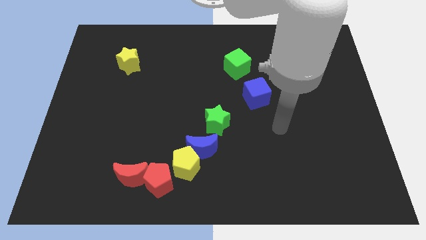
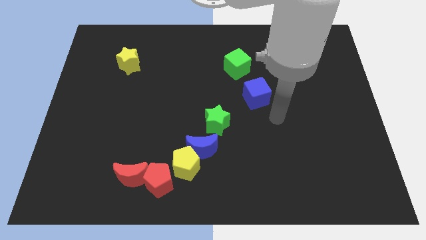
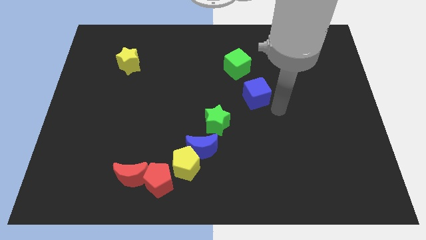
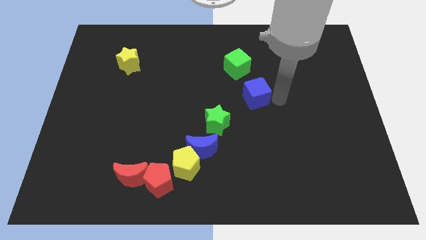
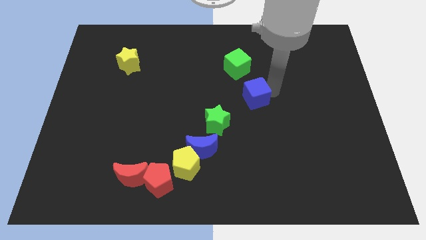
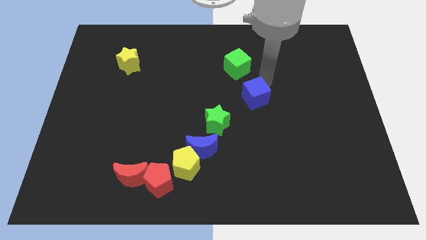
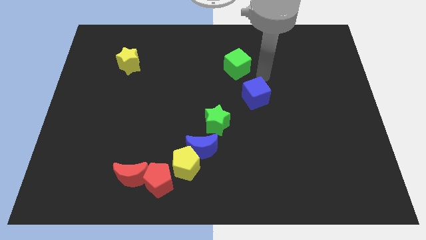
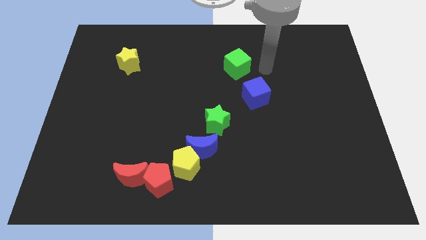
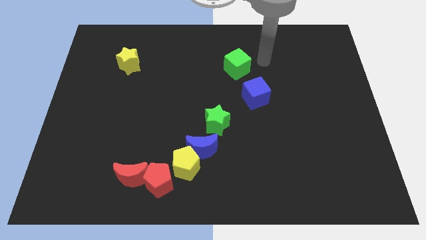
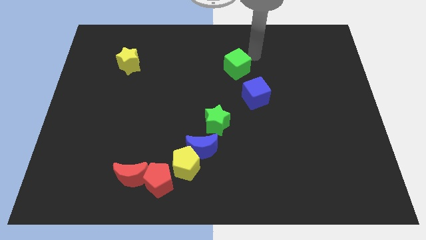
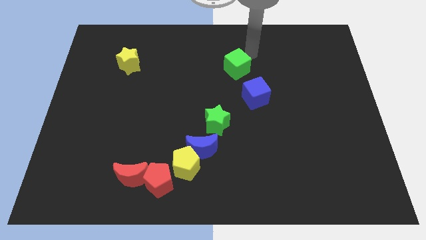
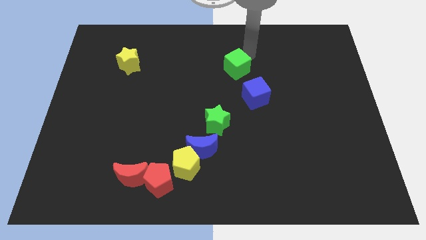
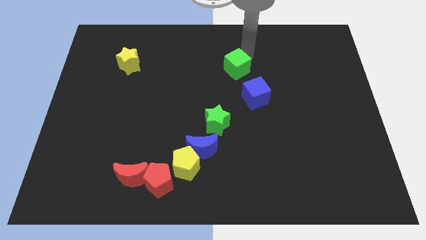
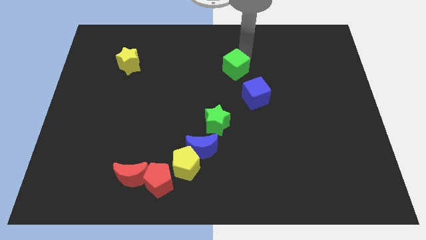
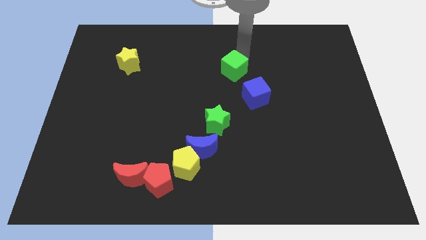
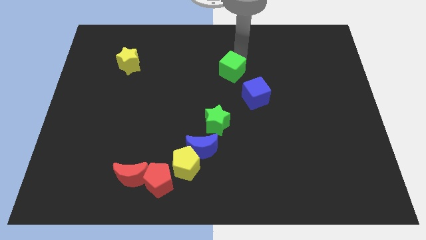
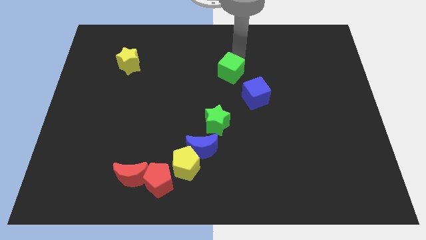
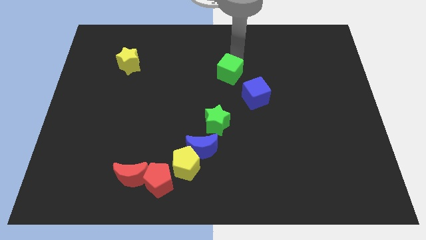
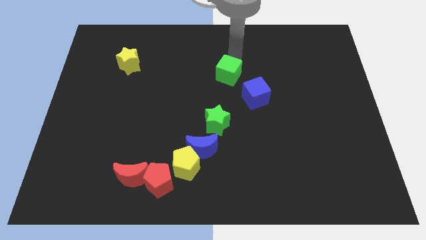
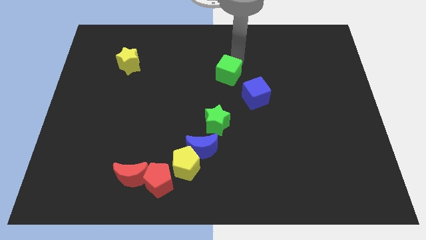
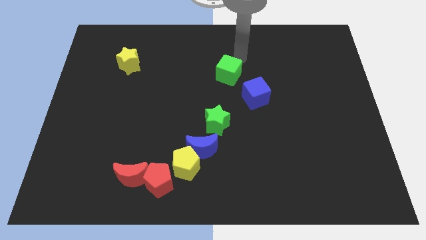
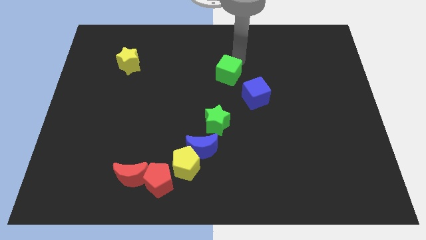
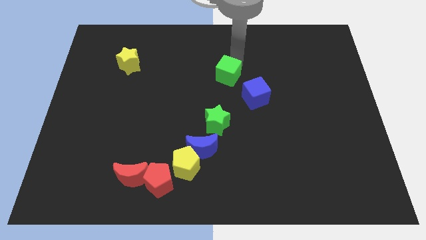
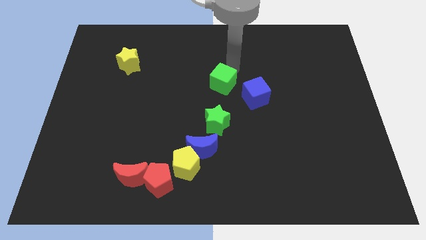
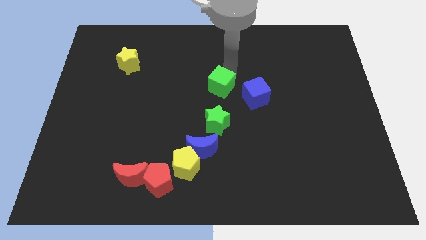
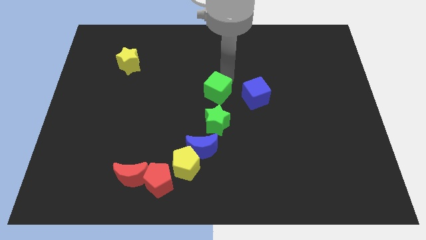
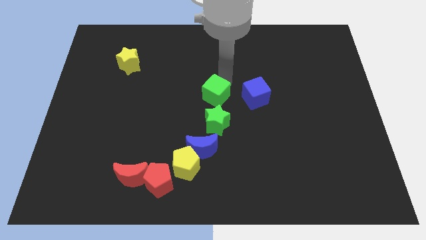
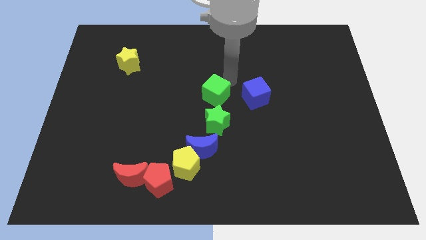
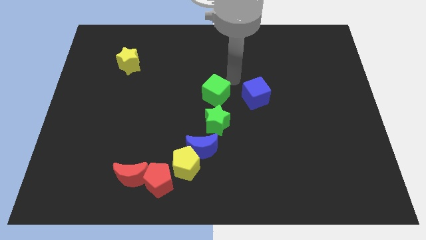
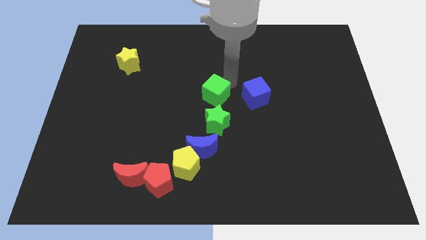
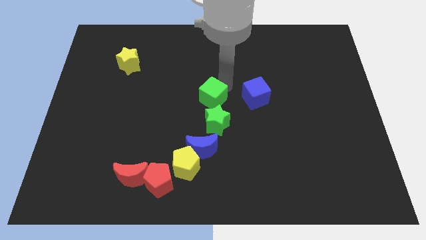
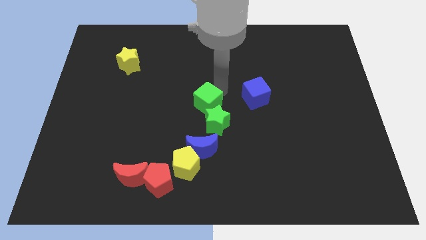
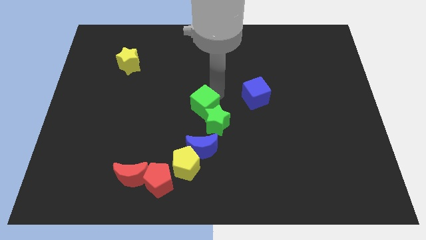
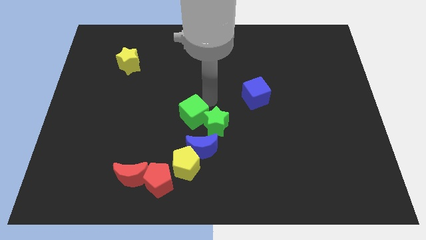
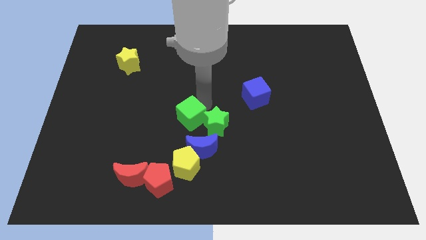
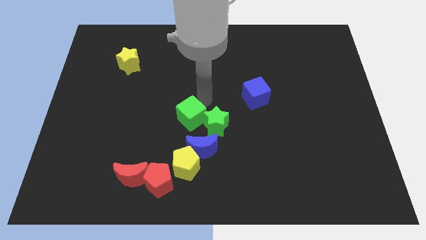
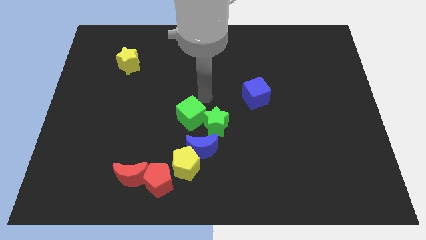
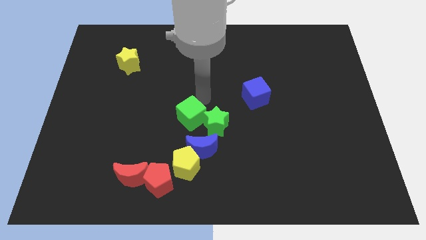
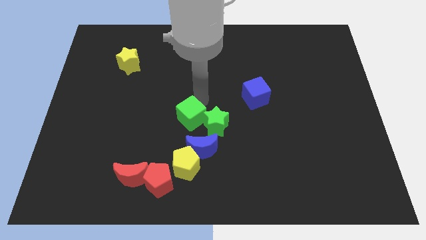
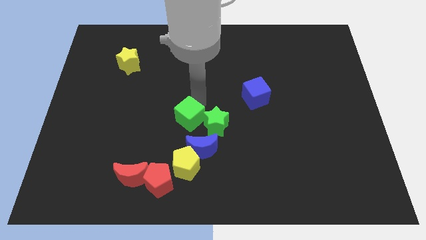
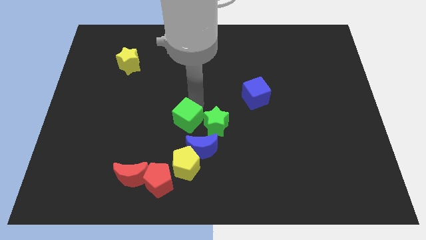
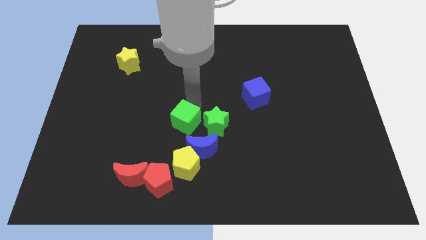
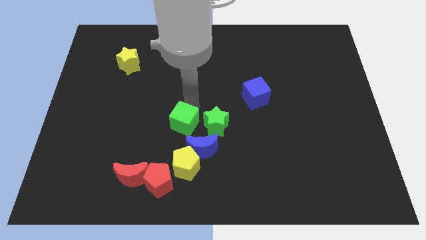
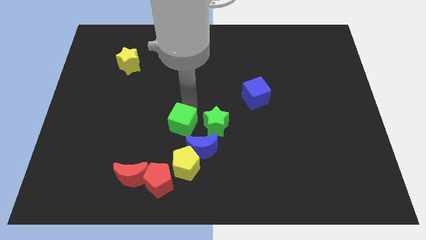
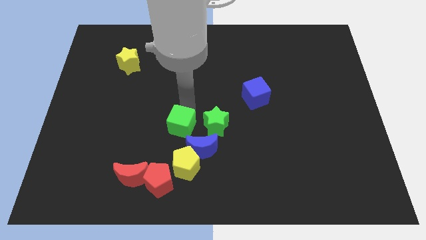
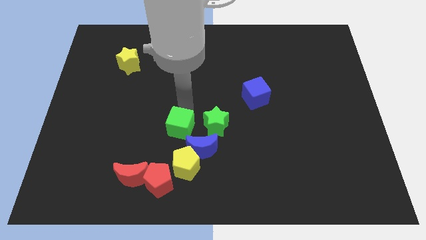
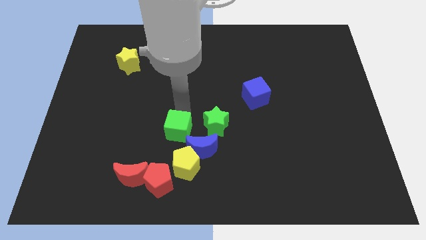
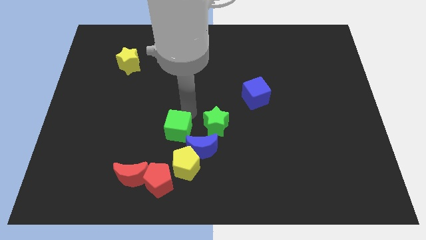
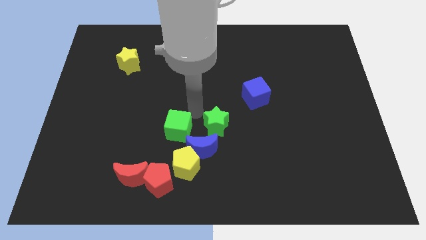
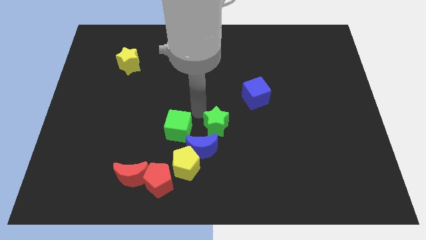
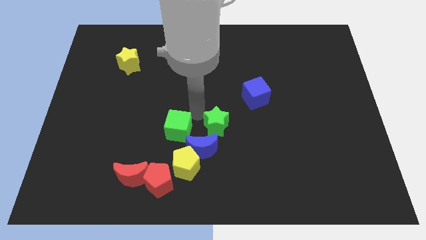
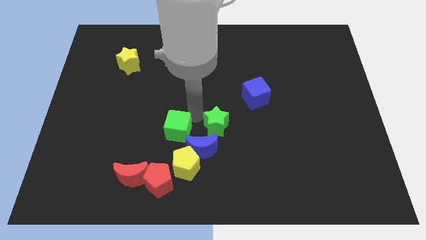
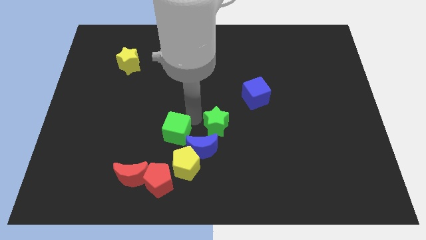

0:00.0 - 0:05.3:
put the green cube to the left side of the blue moon

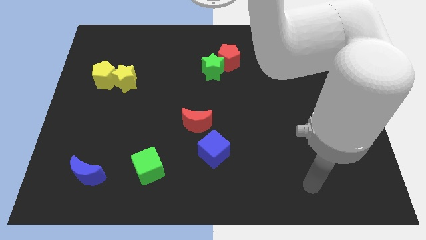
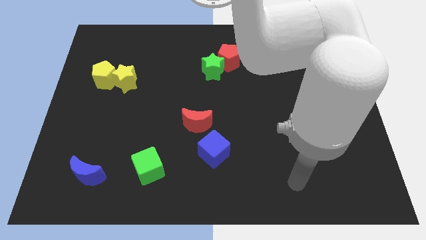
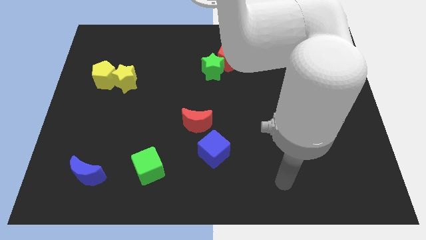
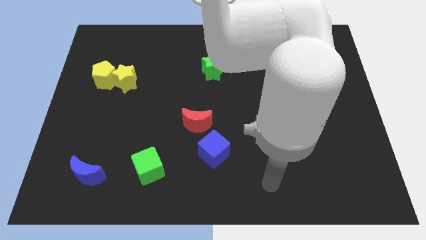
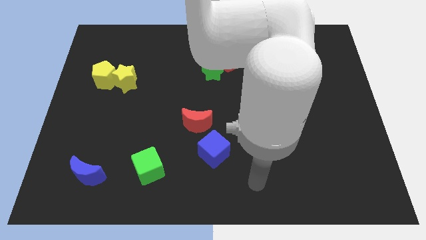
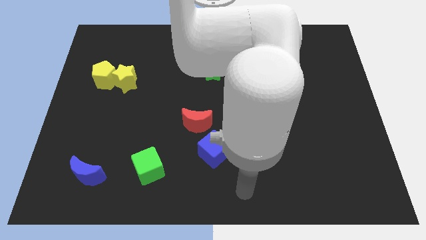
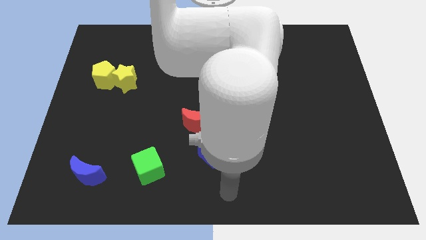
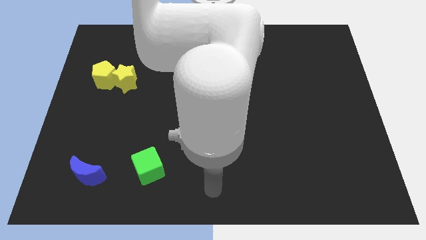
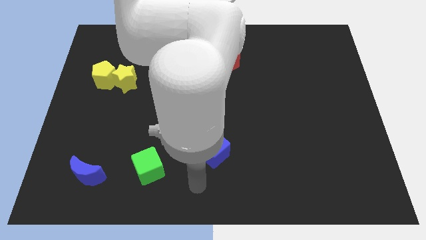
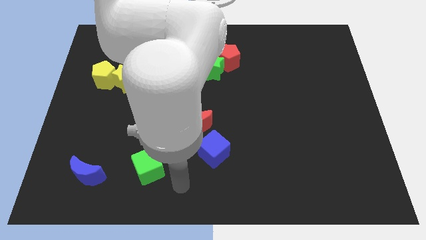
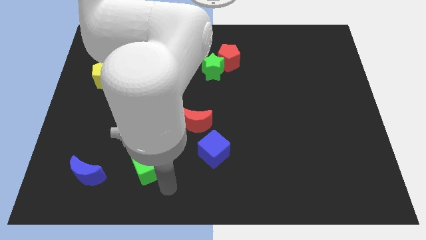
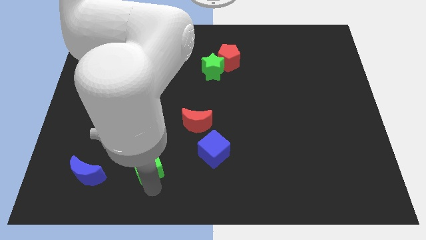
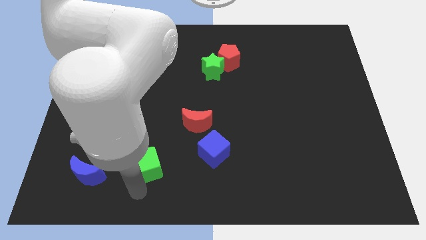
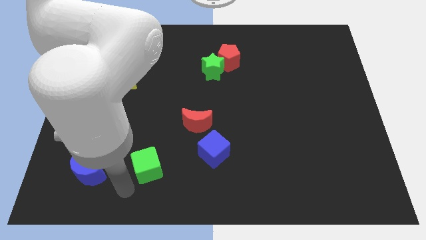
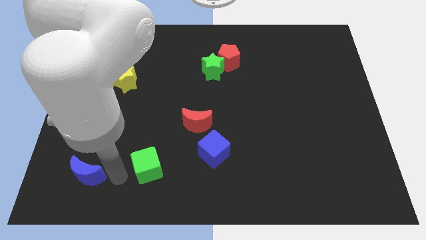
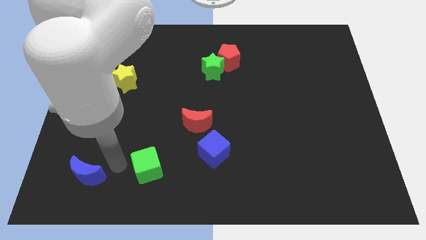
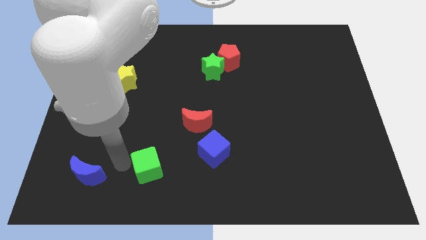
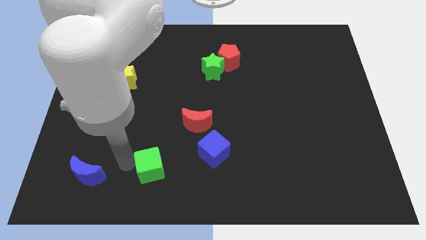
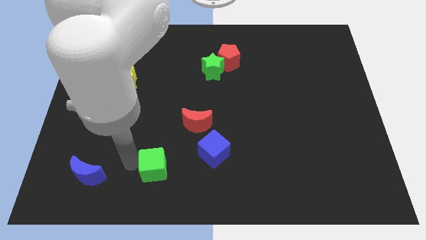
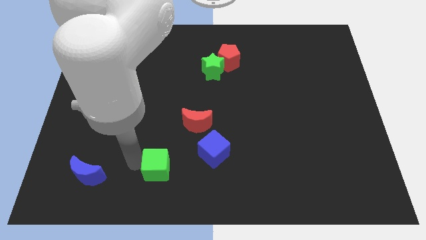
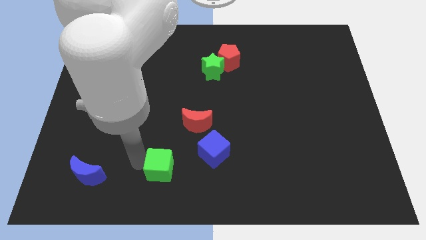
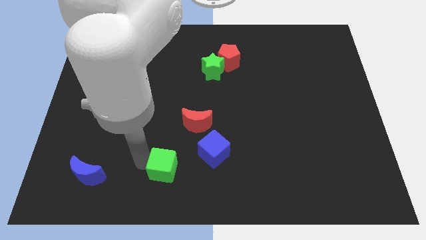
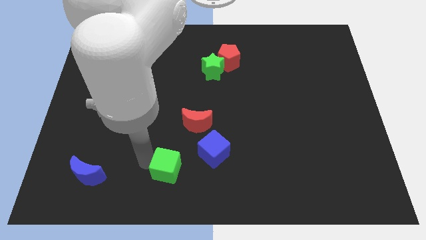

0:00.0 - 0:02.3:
move the green cube to the bottom left side of the blue cube
